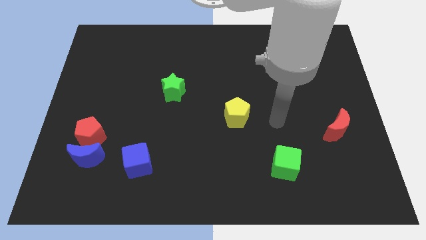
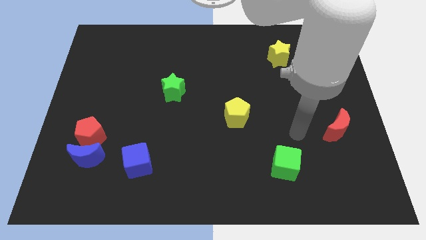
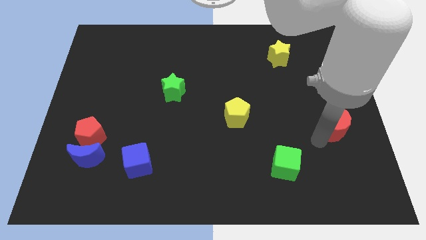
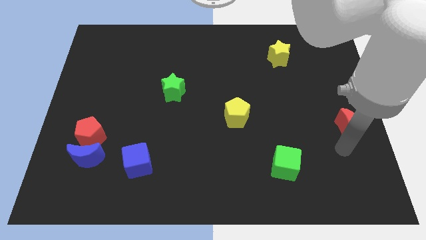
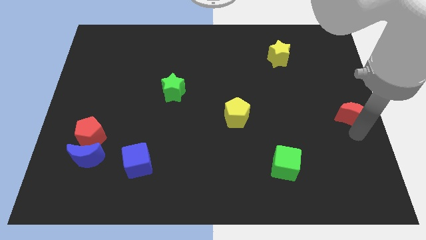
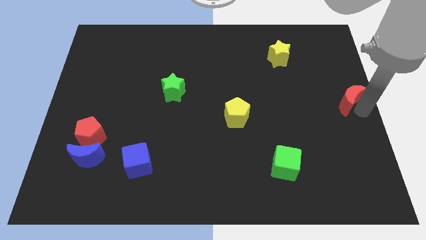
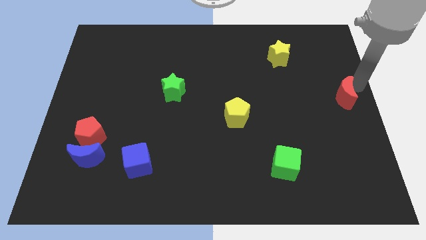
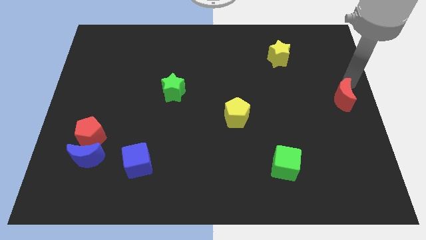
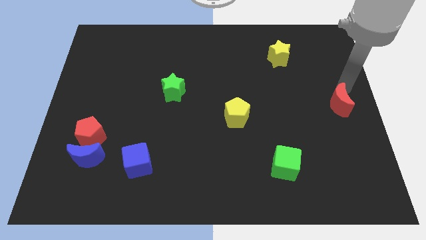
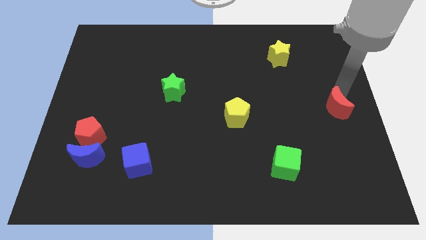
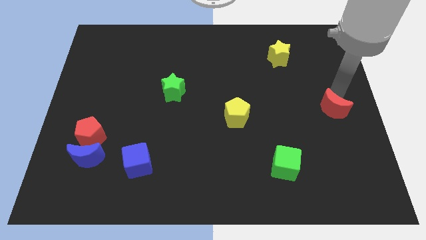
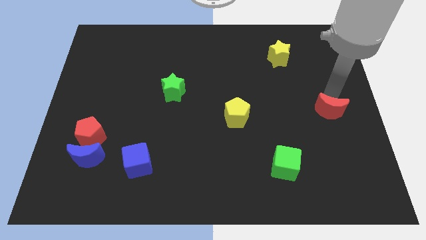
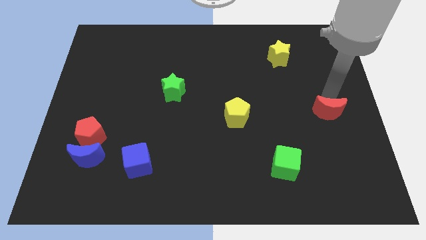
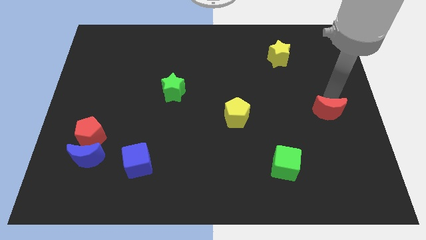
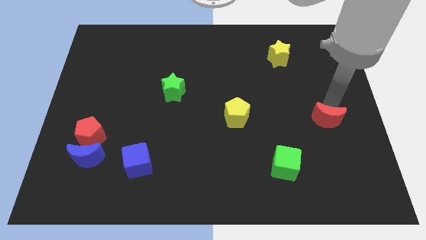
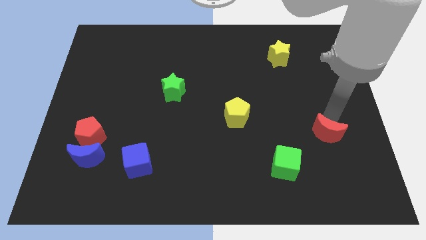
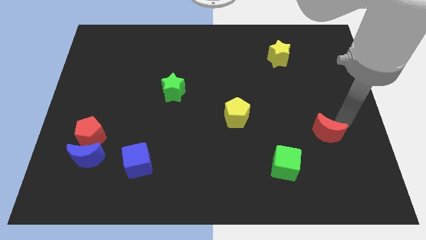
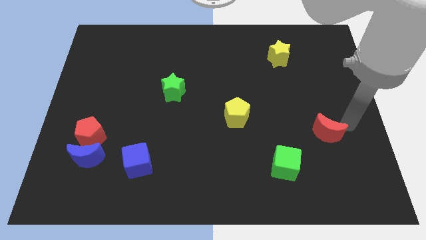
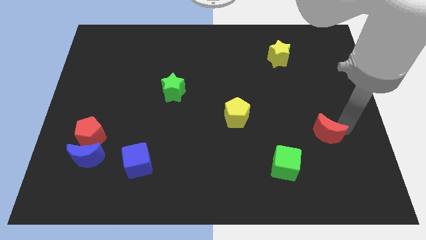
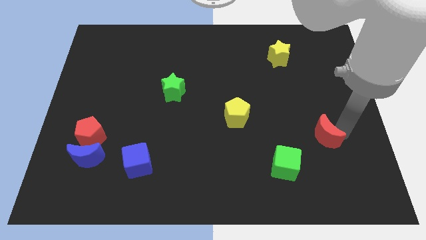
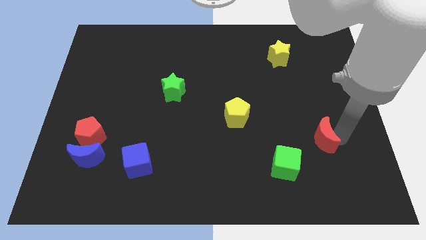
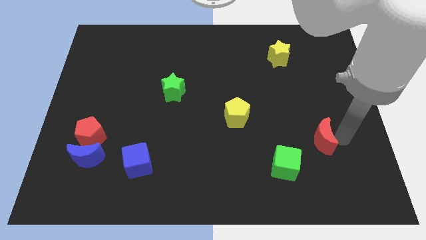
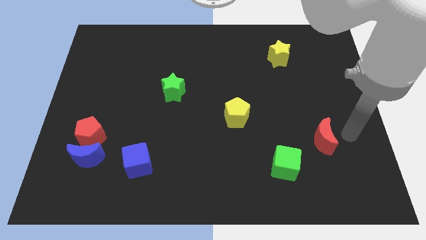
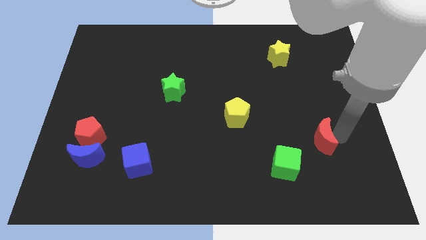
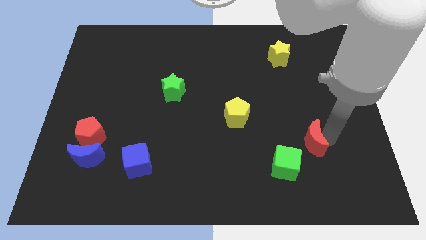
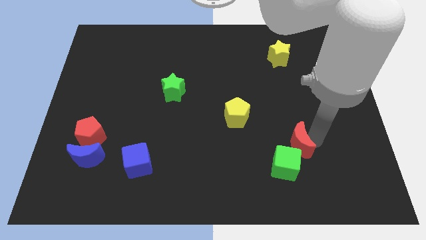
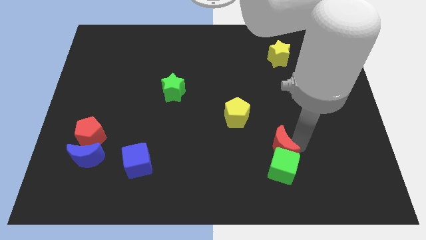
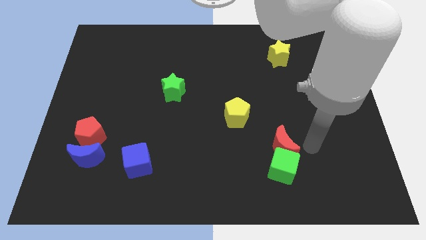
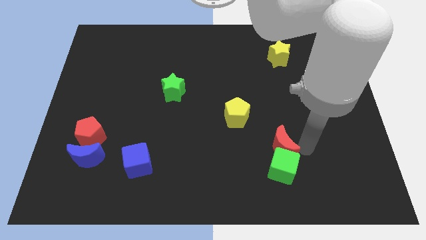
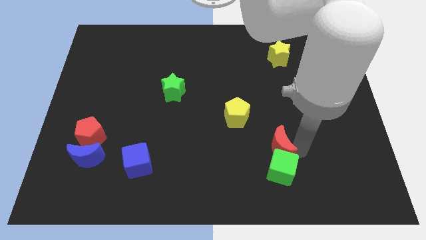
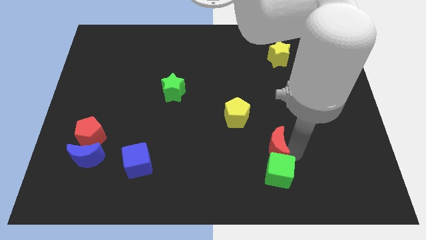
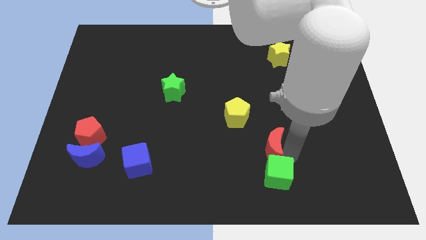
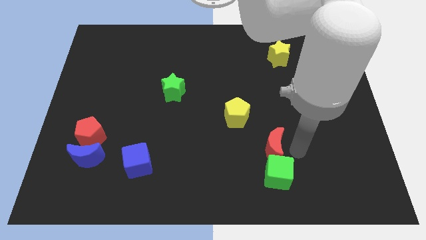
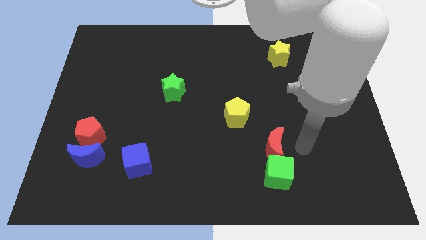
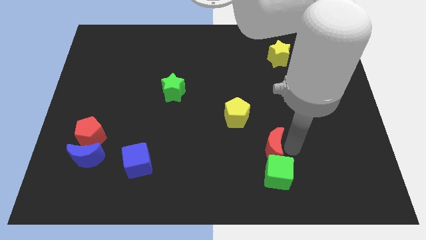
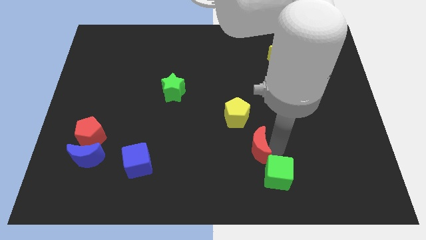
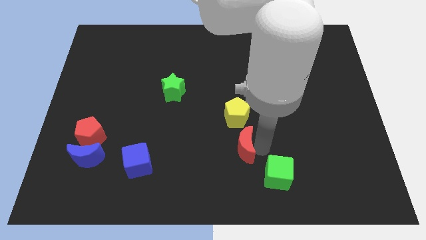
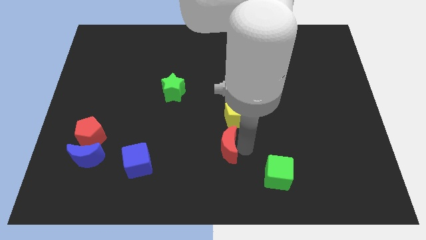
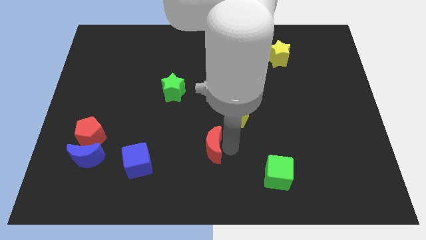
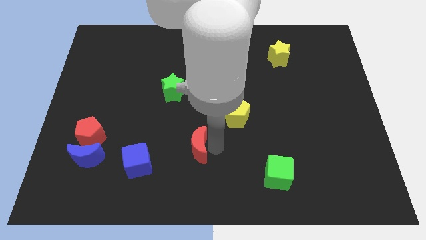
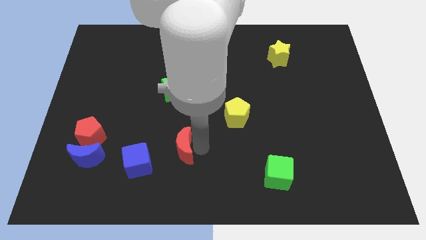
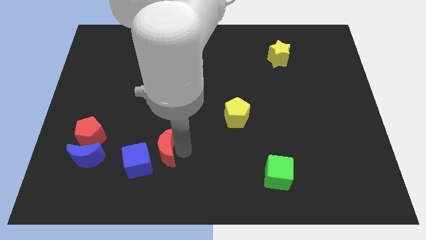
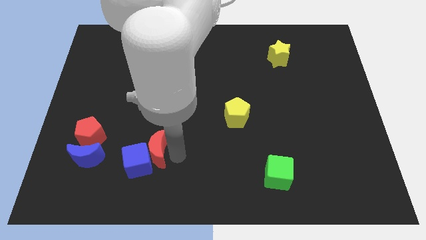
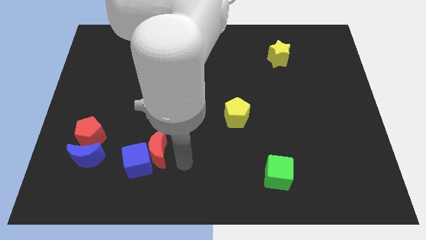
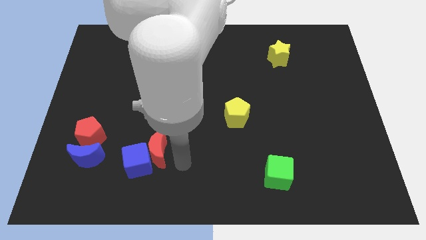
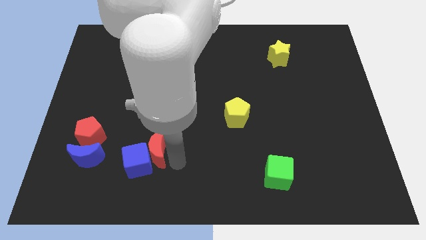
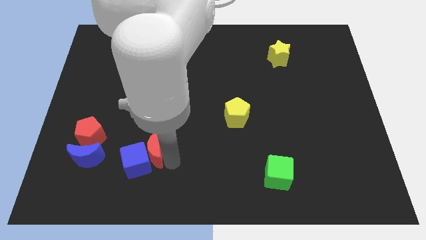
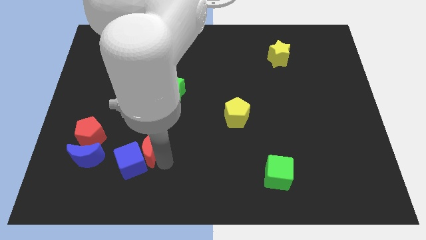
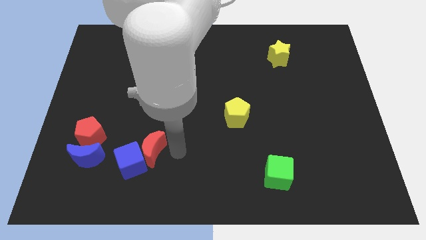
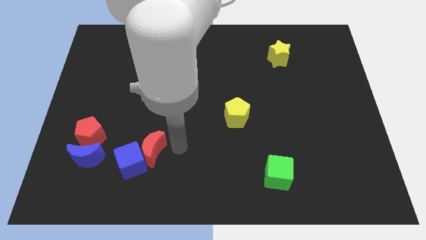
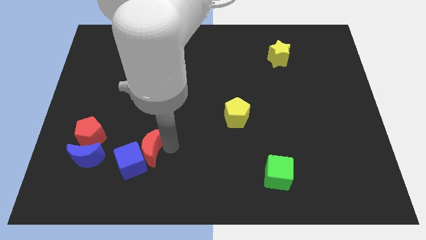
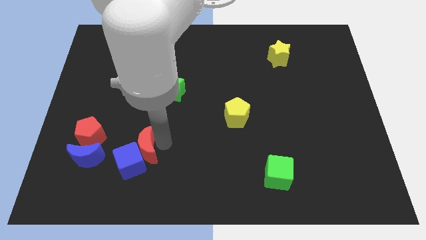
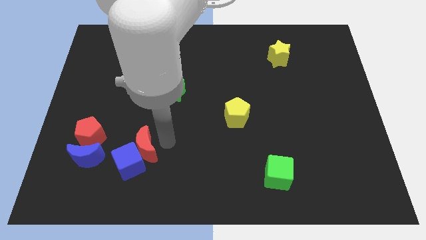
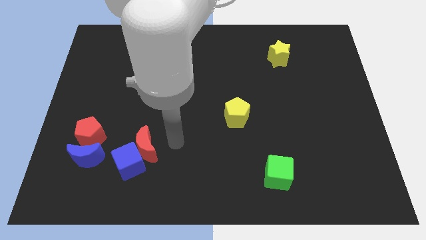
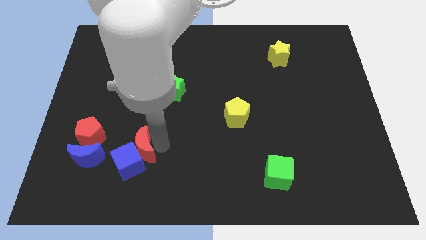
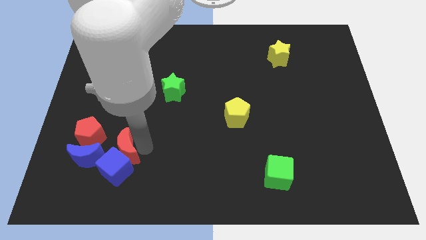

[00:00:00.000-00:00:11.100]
slide the red moon to the bottom right of the red pentagon

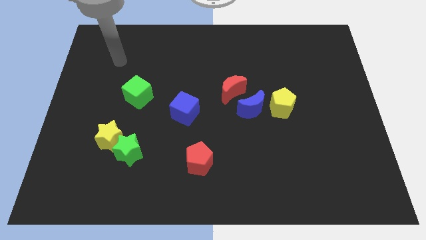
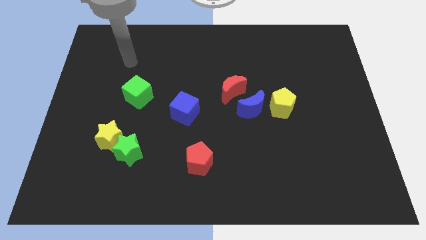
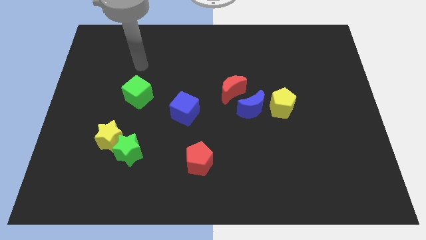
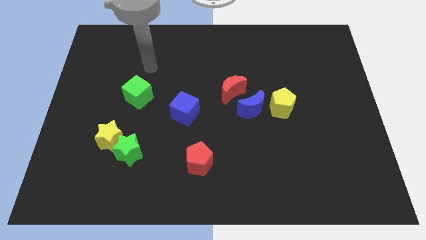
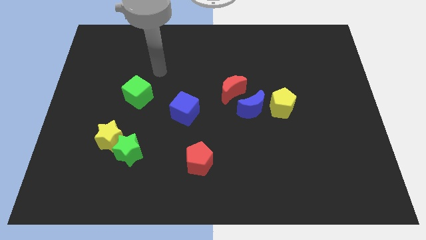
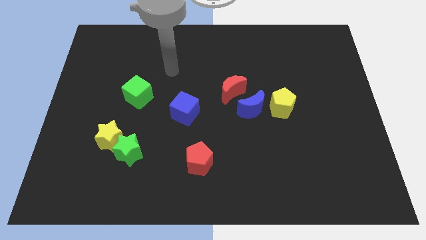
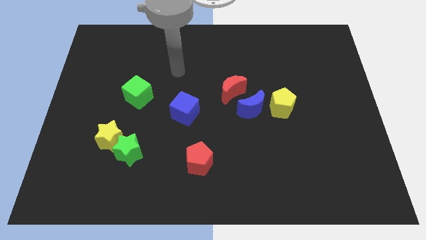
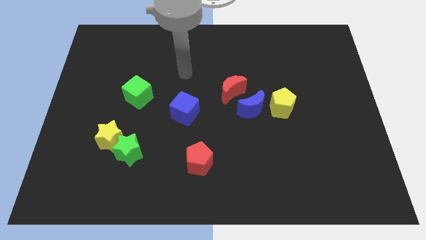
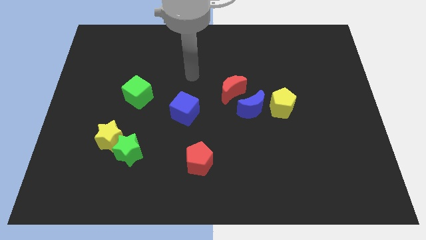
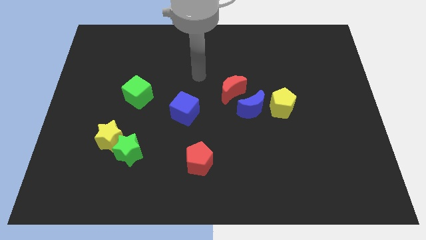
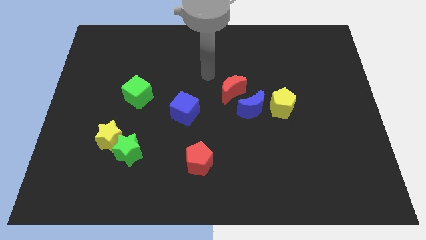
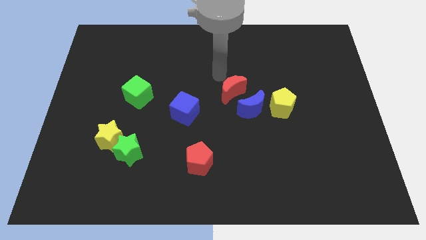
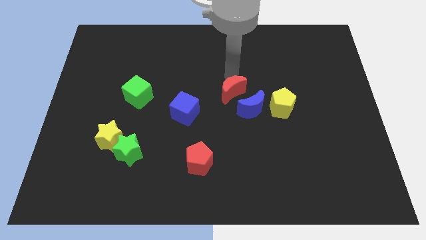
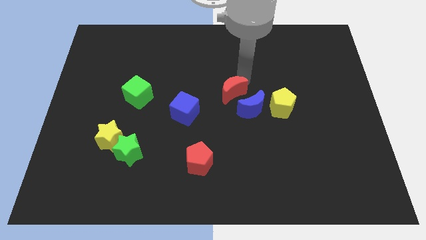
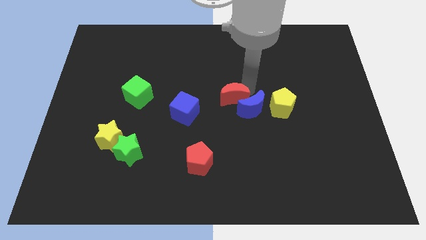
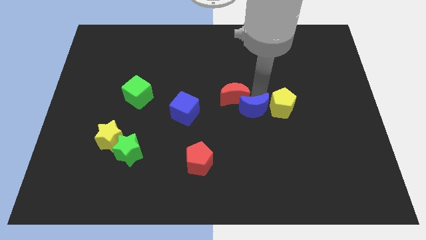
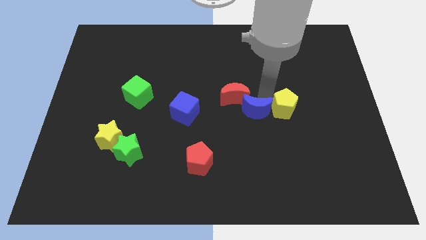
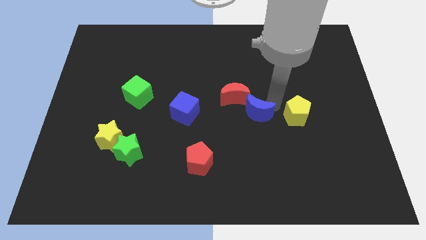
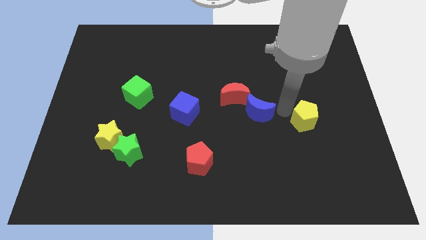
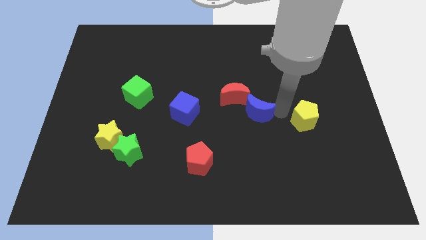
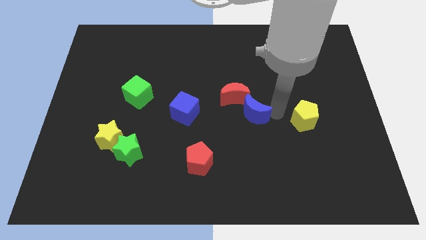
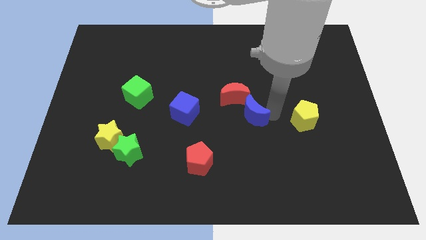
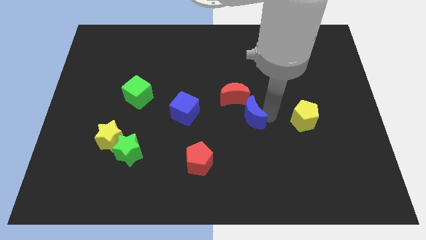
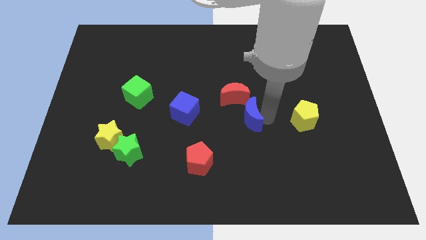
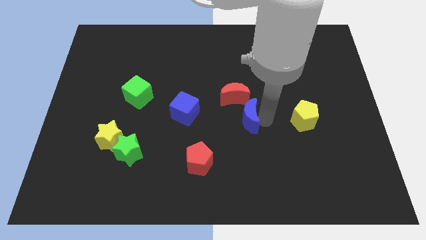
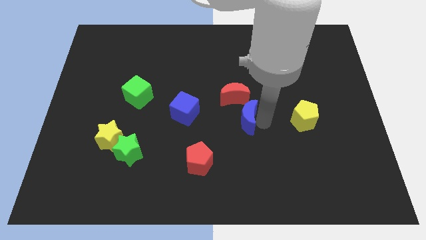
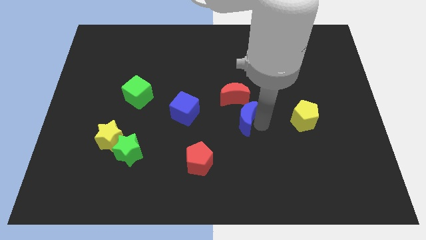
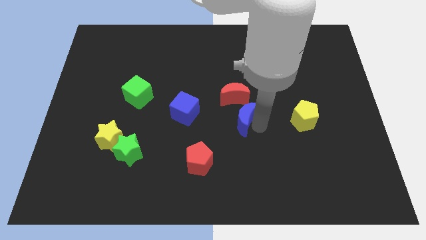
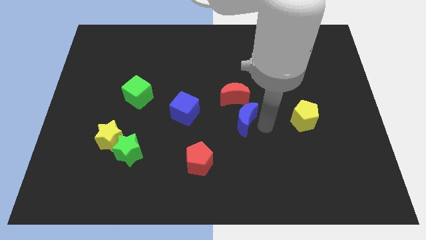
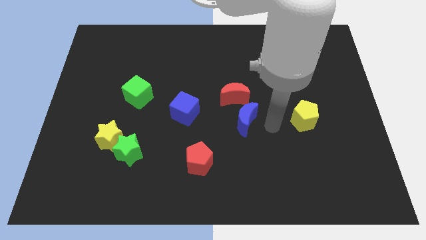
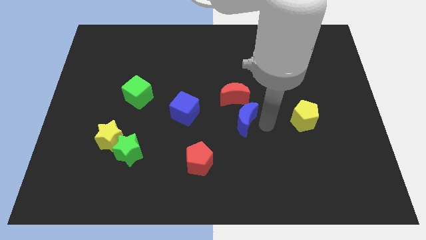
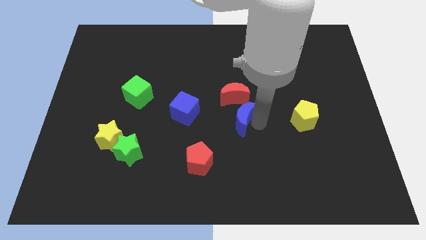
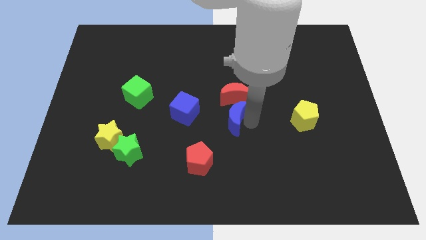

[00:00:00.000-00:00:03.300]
move the blue moon to the bottom left of the red moon
